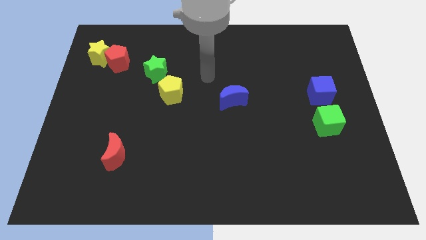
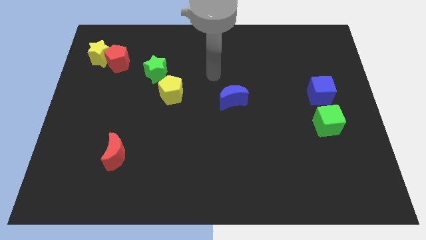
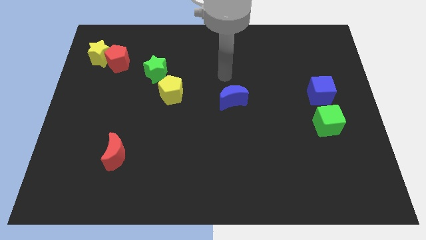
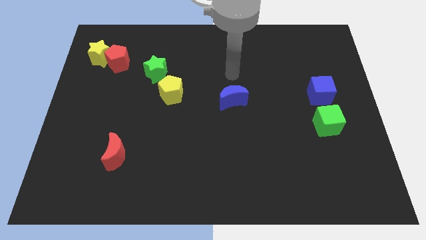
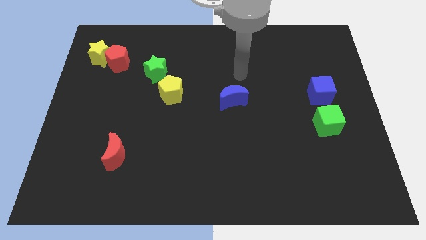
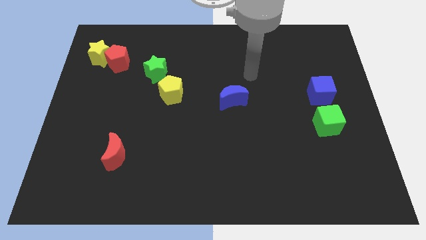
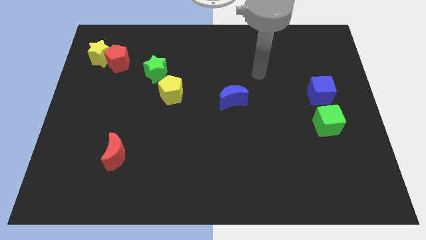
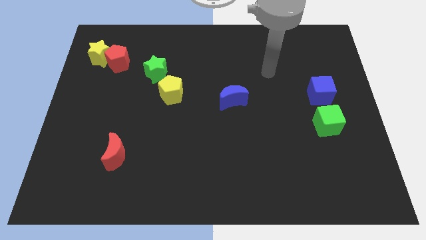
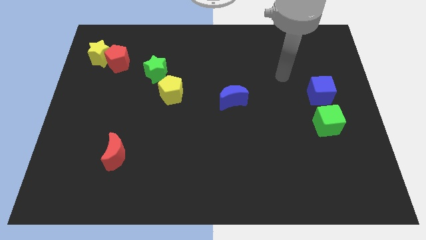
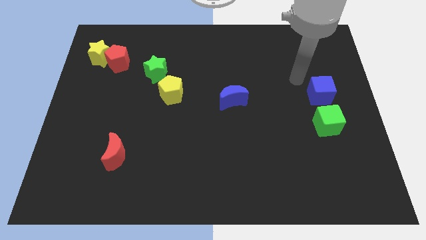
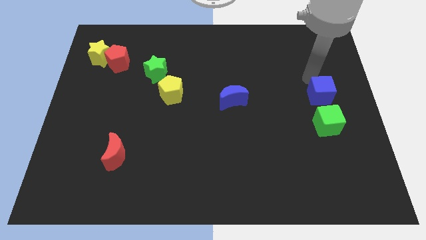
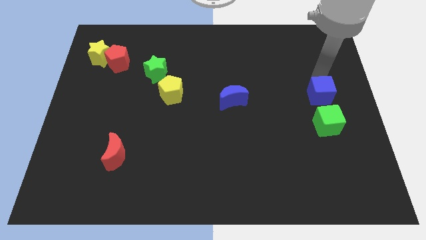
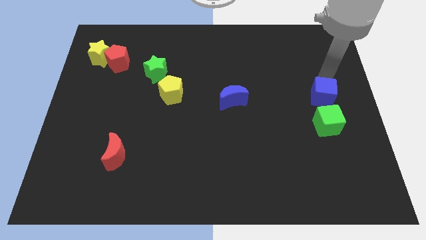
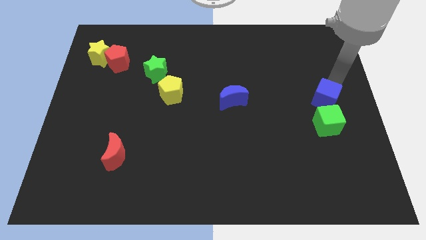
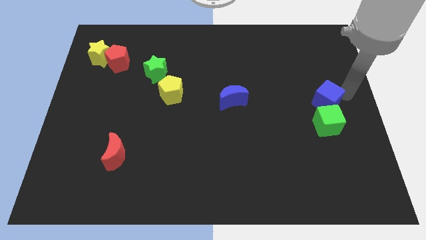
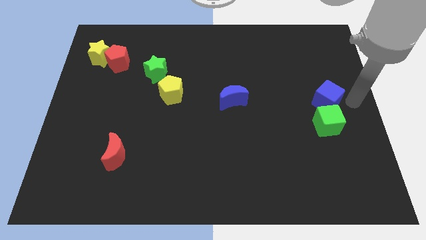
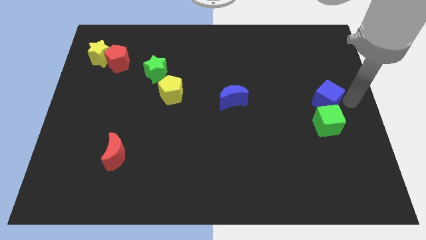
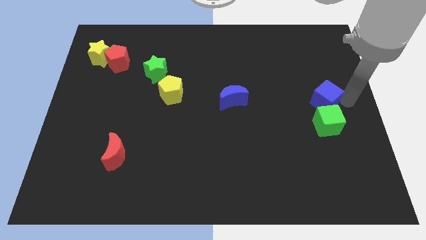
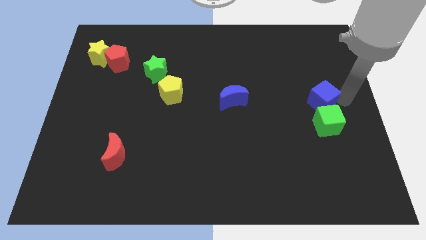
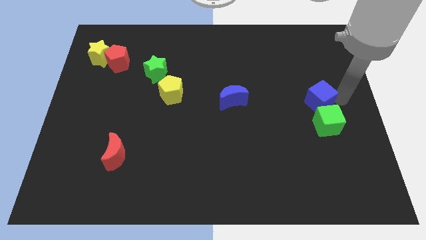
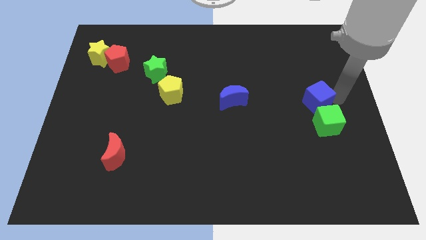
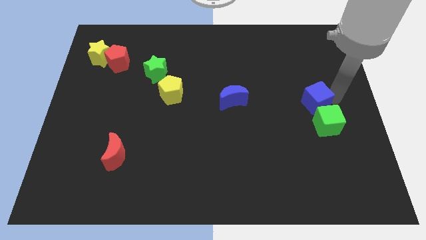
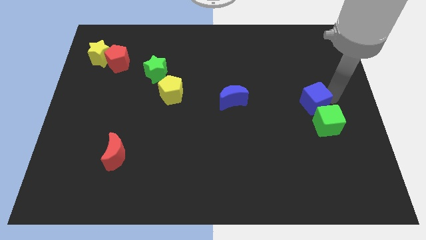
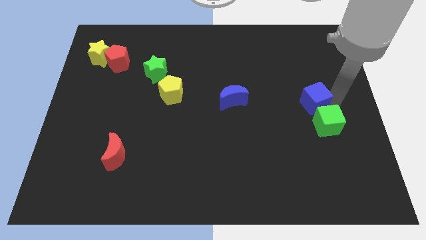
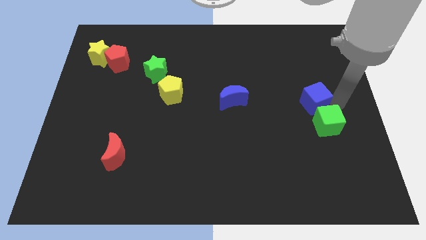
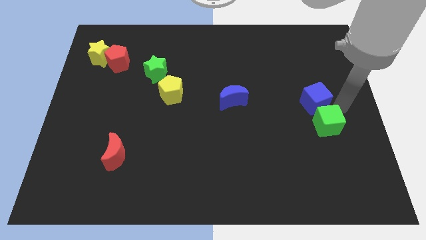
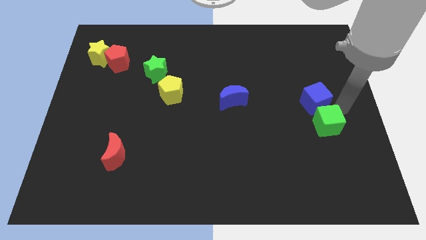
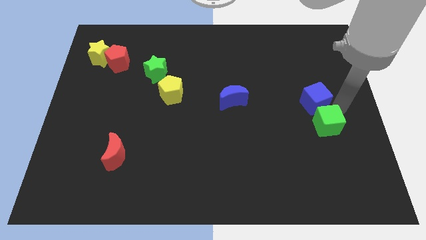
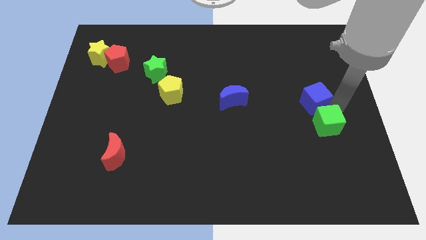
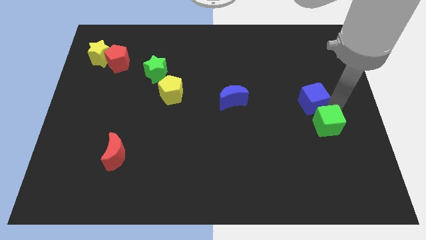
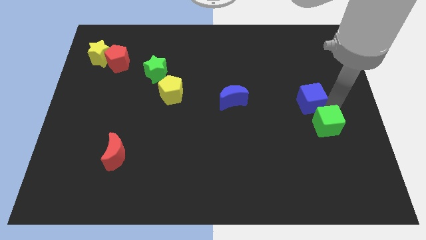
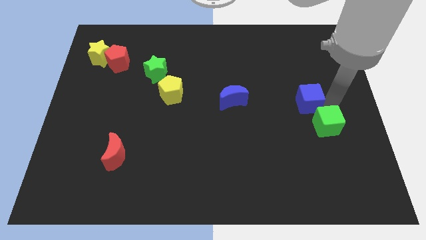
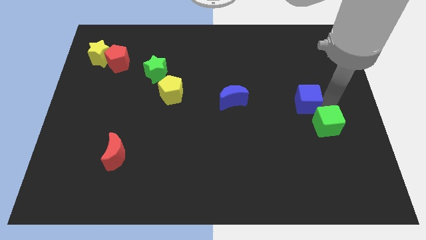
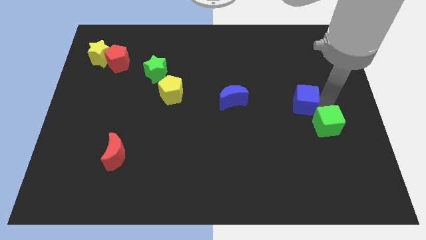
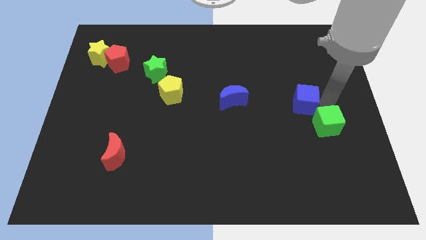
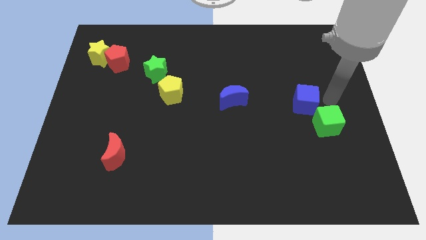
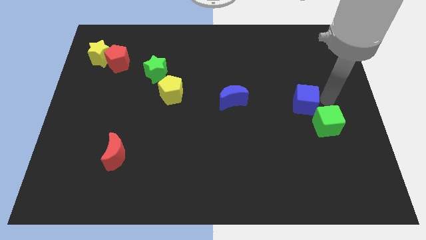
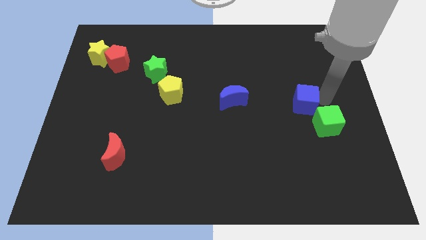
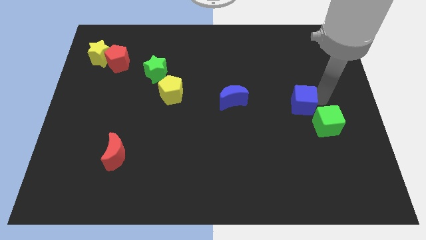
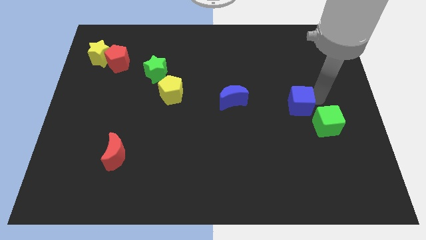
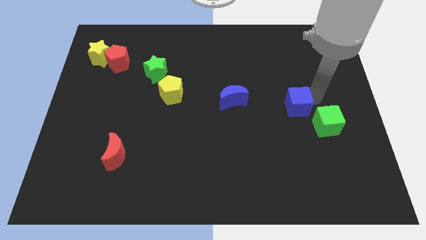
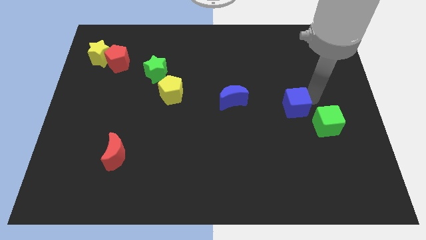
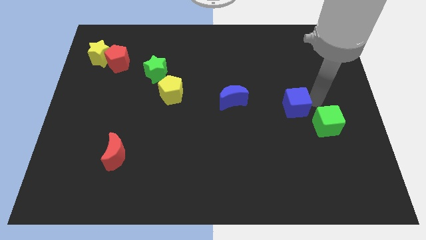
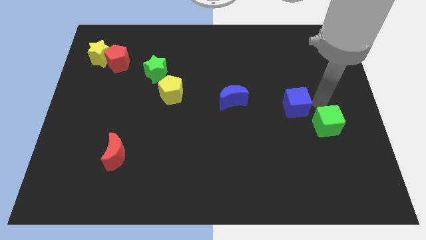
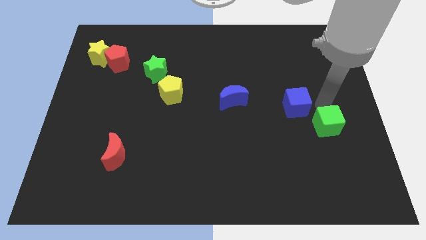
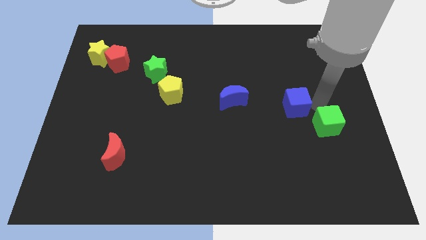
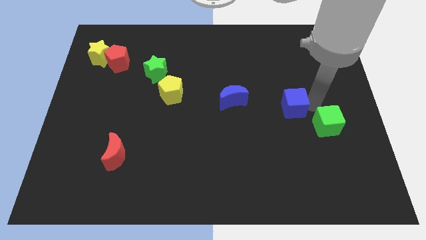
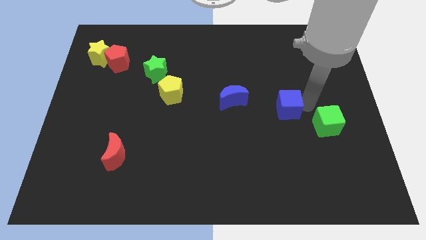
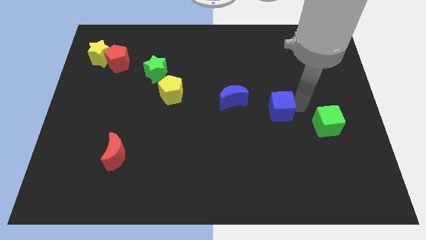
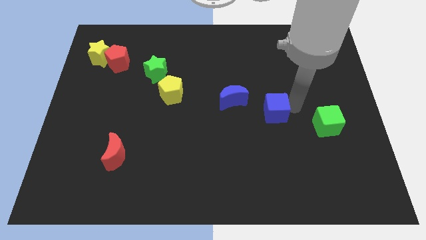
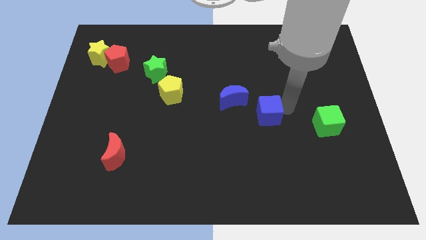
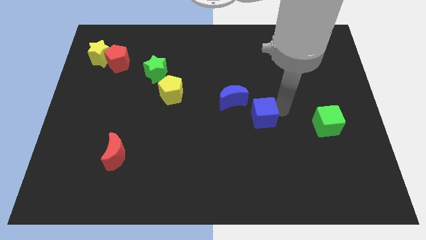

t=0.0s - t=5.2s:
slide the blue cube to the middle

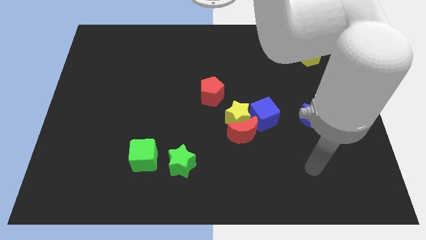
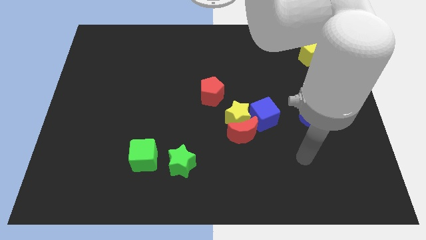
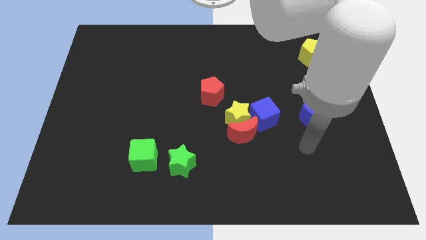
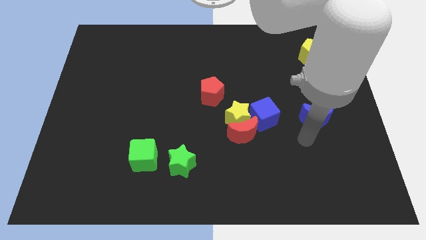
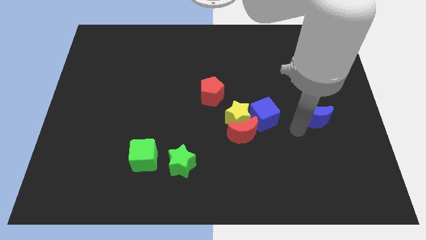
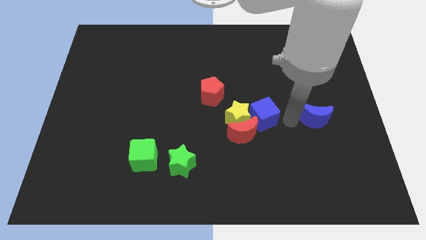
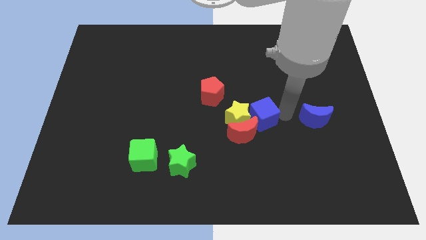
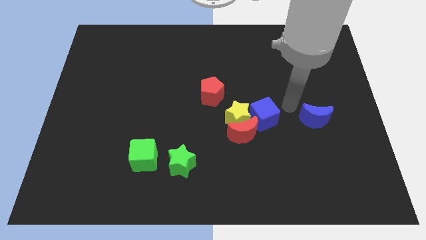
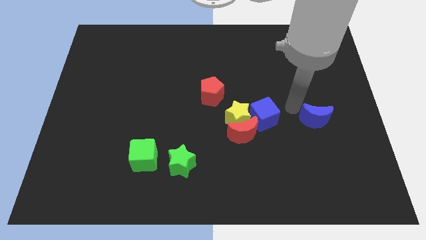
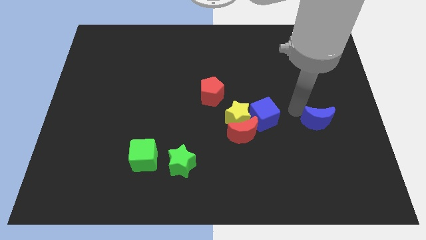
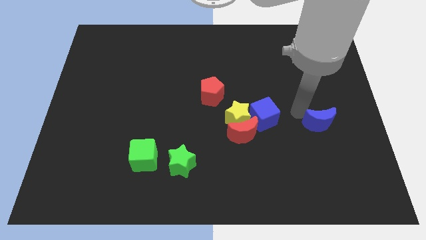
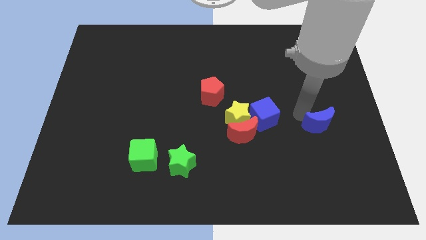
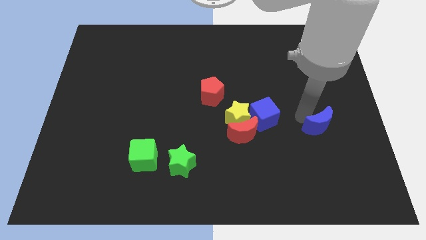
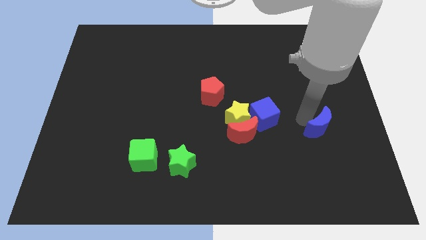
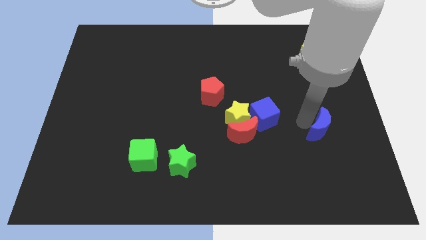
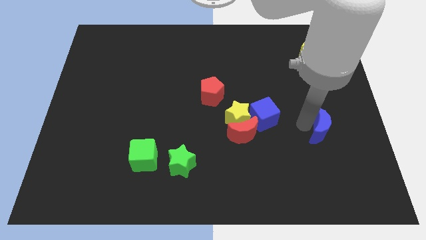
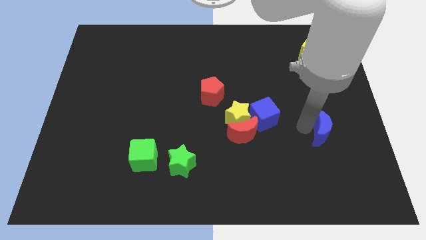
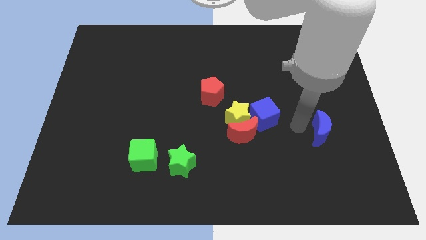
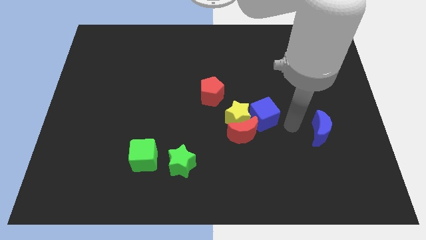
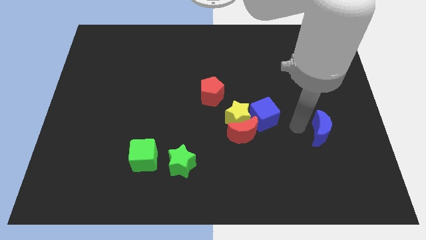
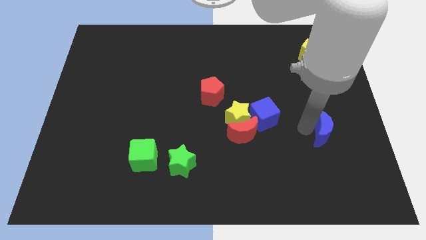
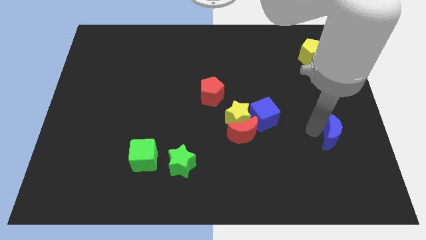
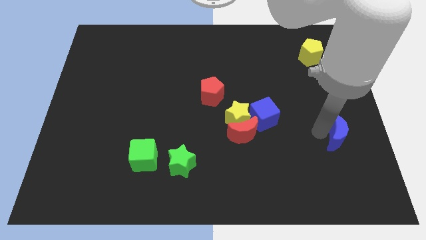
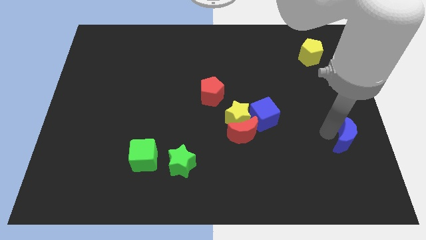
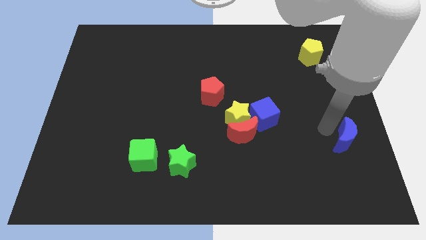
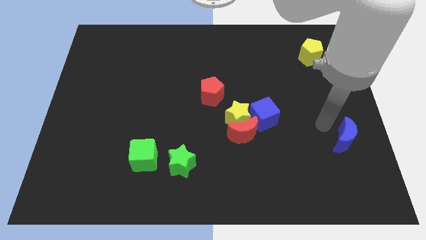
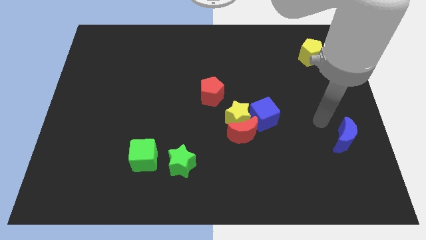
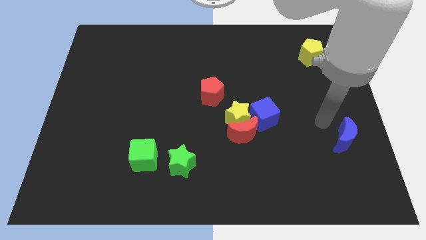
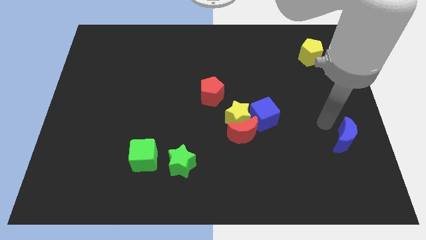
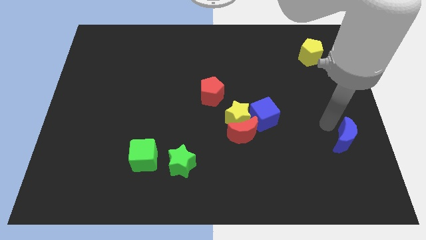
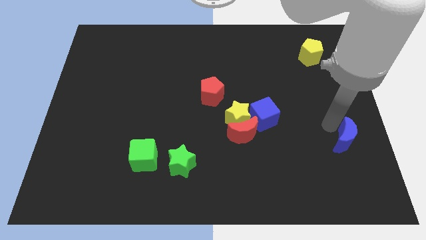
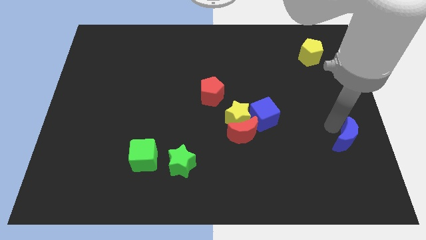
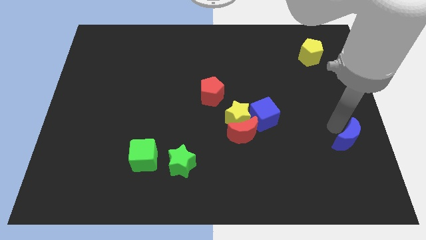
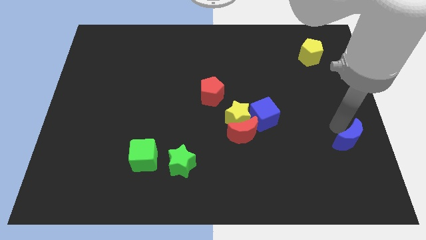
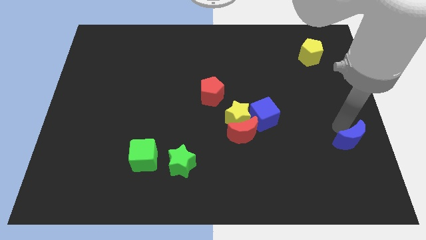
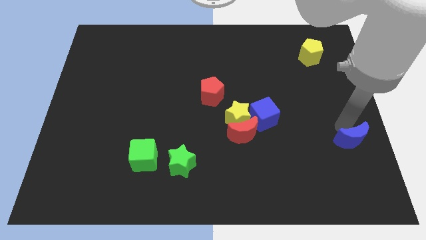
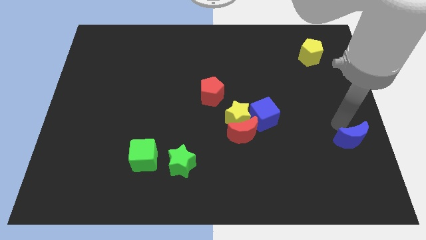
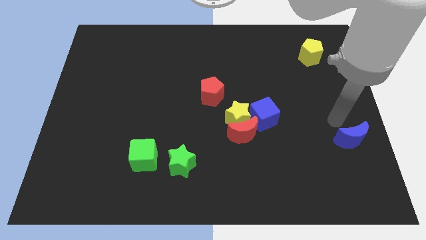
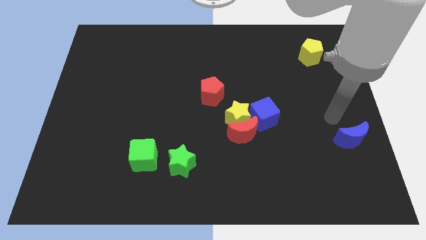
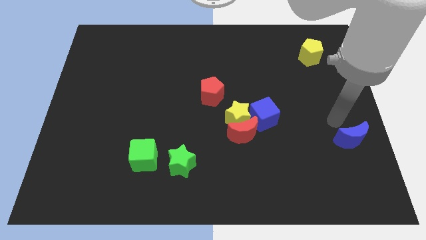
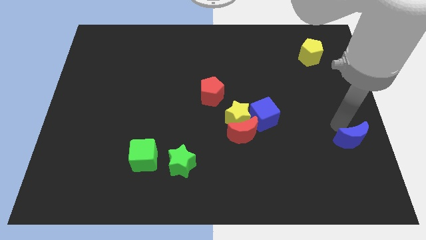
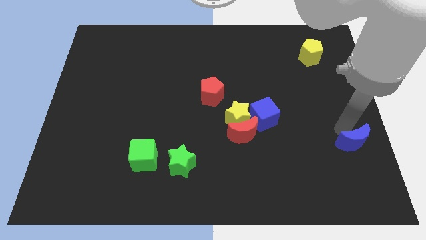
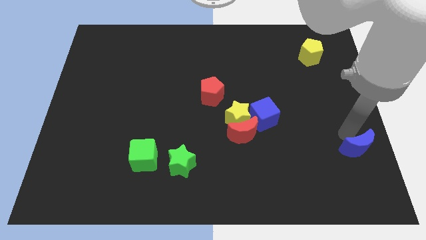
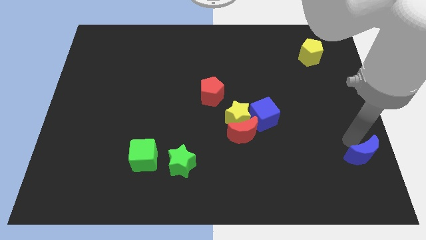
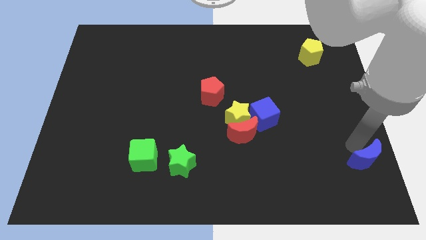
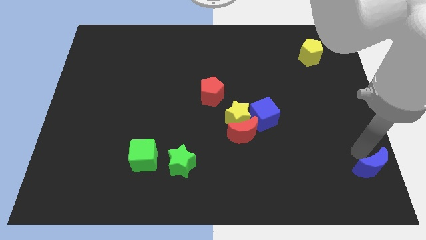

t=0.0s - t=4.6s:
push the blue moon to the lower right corner
